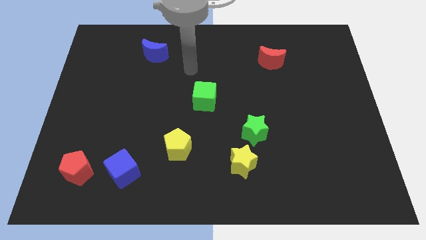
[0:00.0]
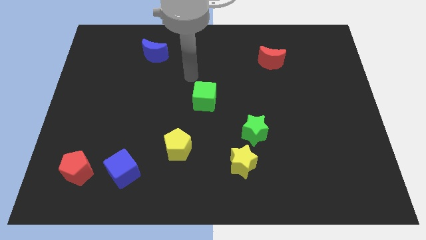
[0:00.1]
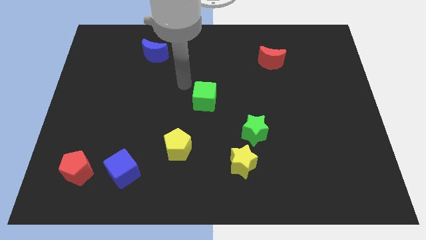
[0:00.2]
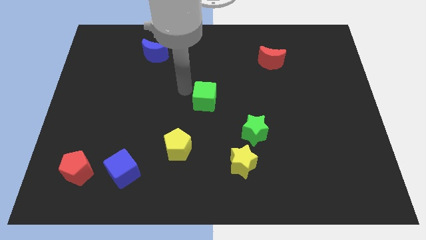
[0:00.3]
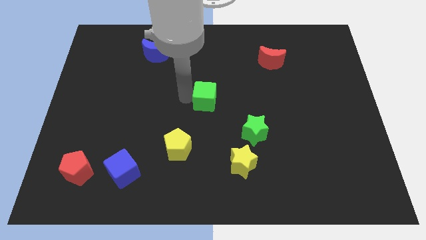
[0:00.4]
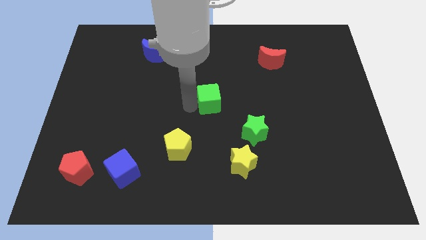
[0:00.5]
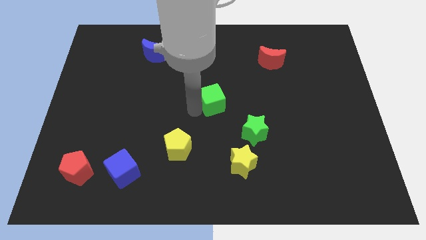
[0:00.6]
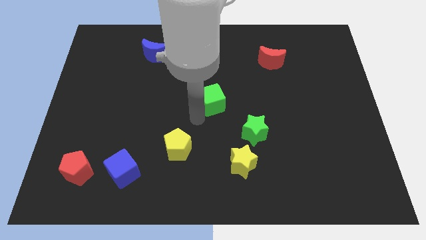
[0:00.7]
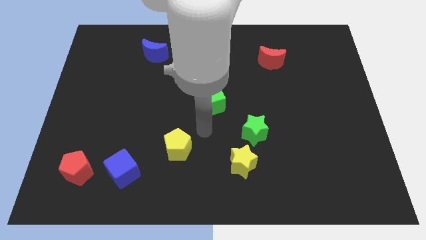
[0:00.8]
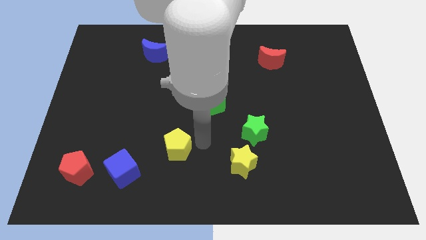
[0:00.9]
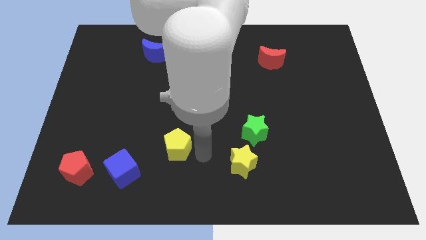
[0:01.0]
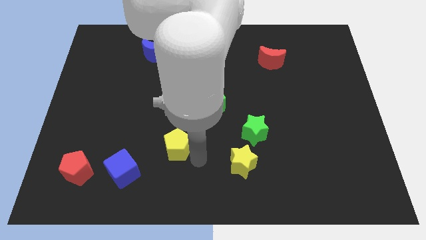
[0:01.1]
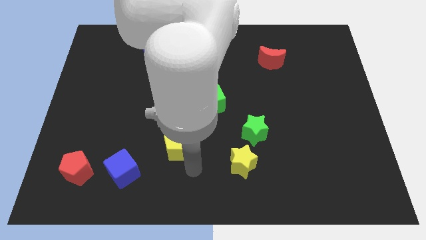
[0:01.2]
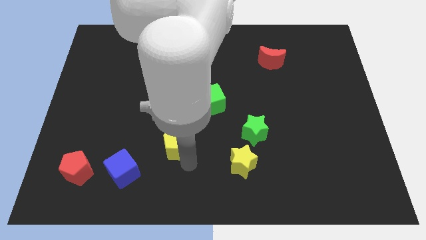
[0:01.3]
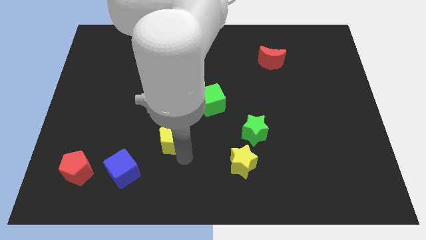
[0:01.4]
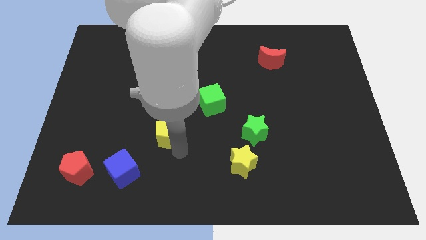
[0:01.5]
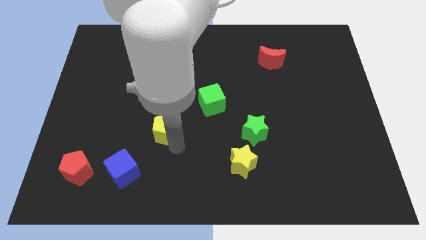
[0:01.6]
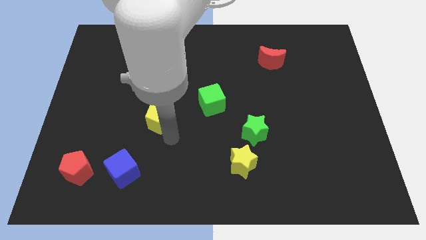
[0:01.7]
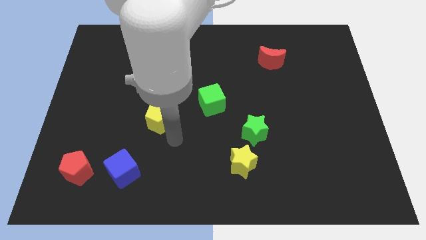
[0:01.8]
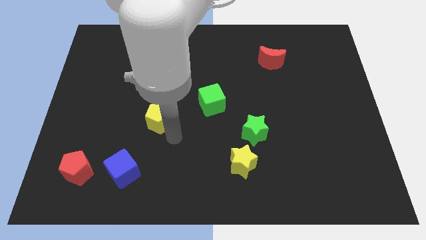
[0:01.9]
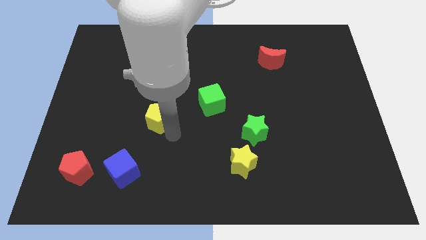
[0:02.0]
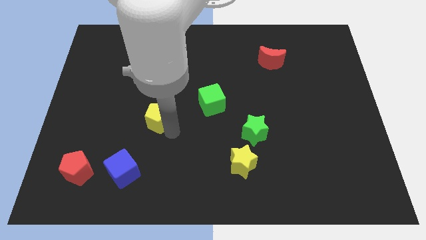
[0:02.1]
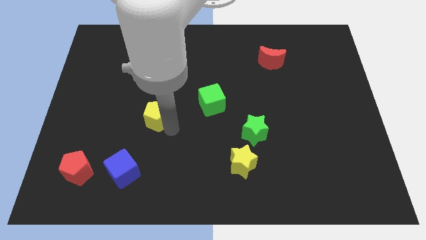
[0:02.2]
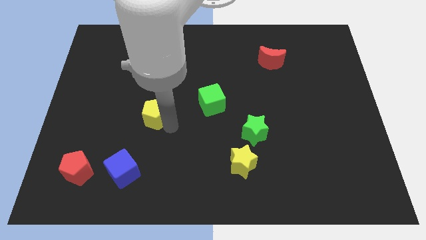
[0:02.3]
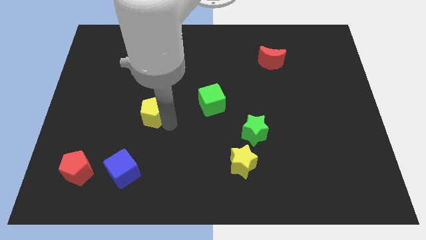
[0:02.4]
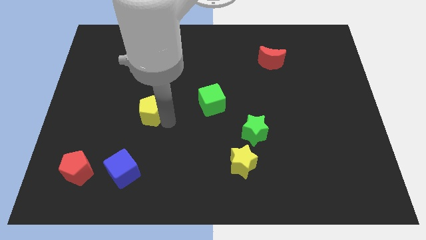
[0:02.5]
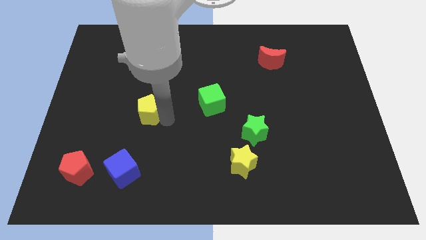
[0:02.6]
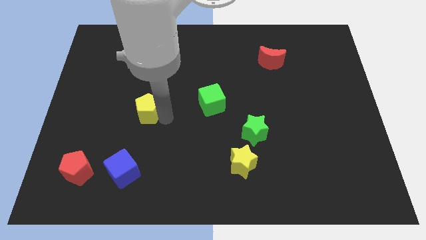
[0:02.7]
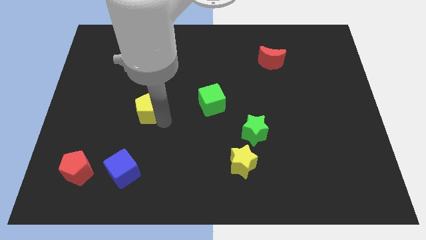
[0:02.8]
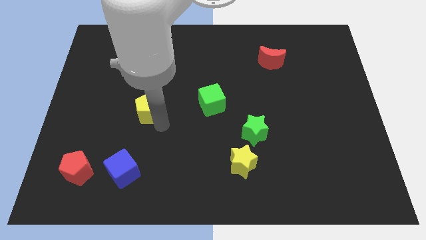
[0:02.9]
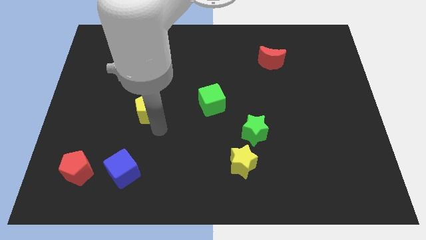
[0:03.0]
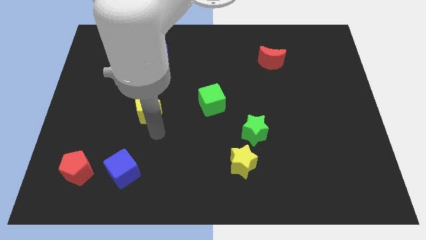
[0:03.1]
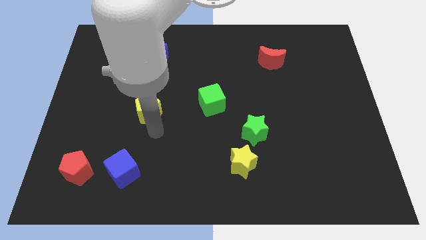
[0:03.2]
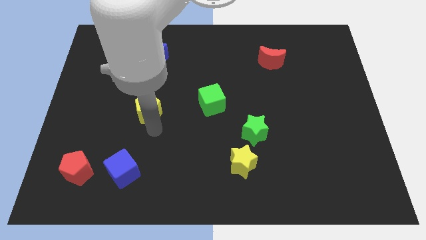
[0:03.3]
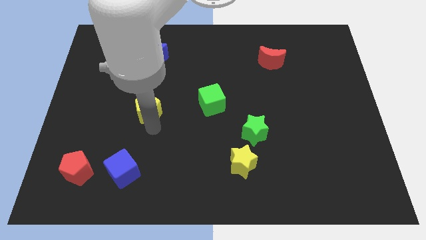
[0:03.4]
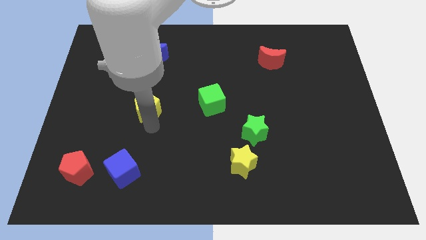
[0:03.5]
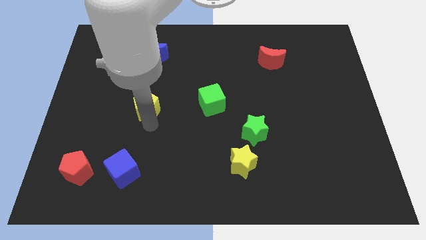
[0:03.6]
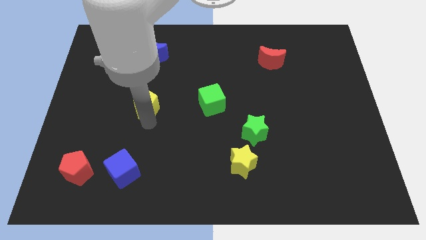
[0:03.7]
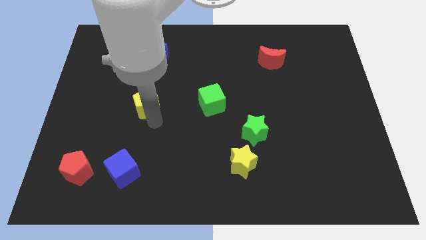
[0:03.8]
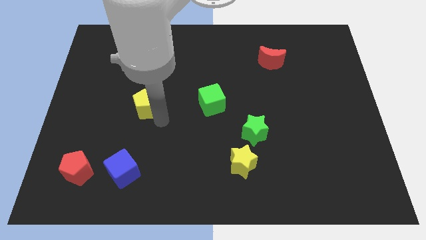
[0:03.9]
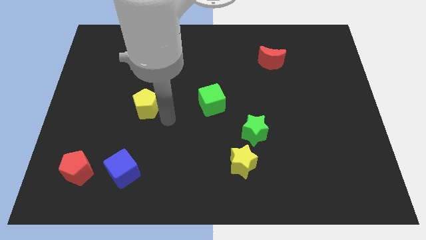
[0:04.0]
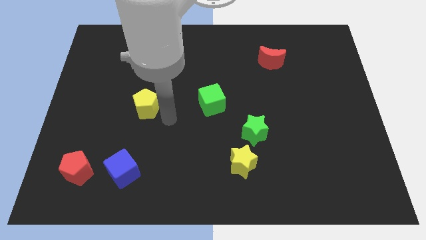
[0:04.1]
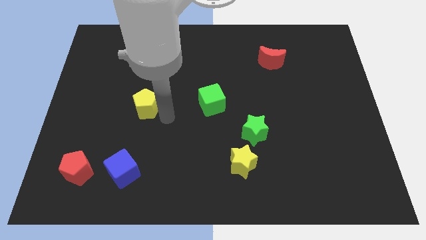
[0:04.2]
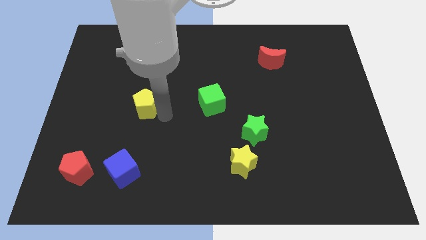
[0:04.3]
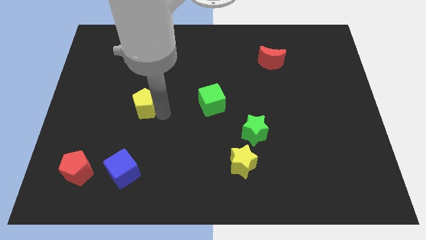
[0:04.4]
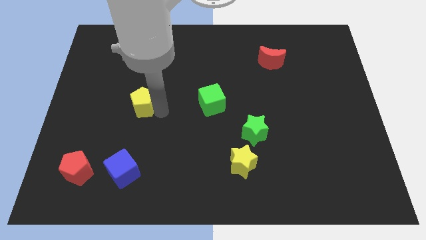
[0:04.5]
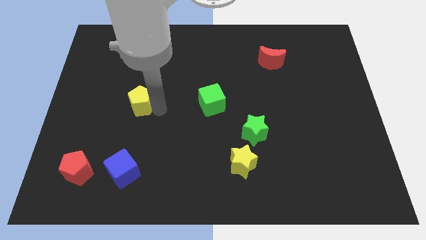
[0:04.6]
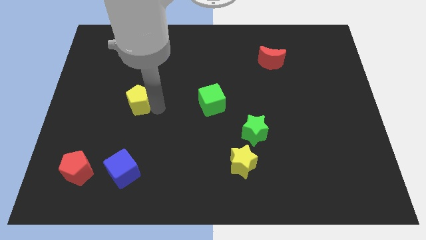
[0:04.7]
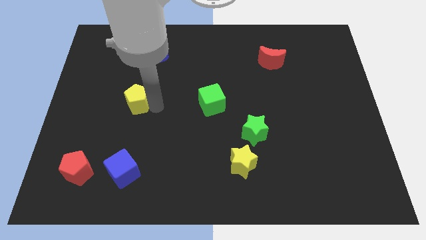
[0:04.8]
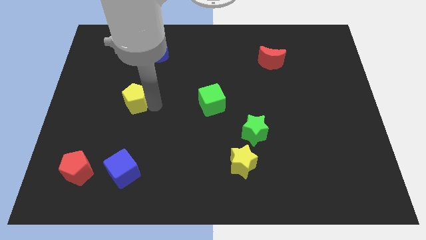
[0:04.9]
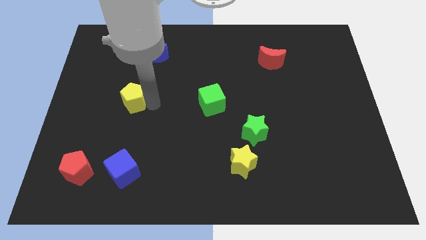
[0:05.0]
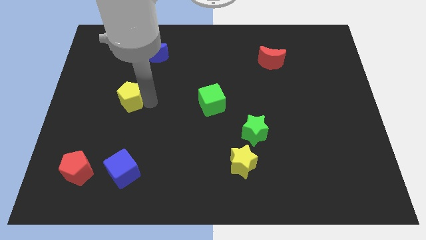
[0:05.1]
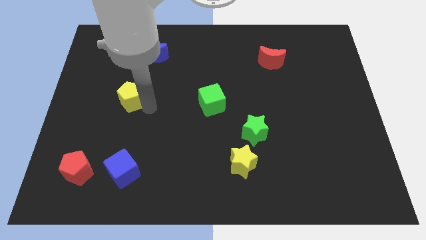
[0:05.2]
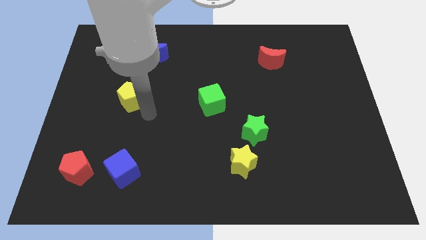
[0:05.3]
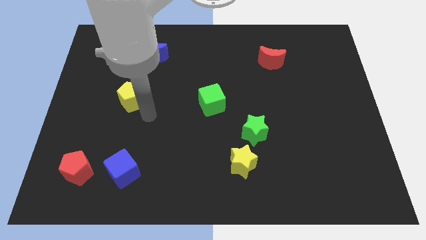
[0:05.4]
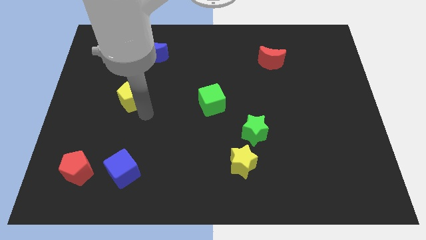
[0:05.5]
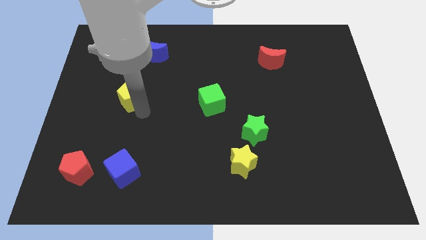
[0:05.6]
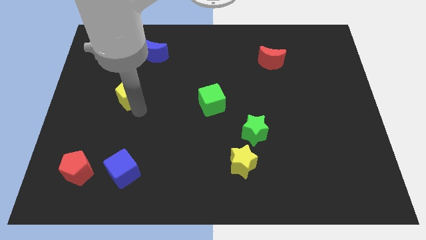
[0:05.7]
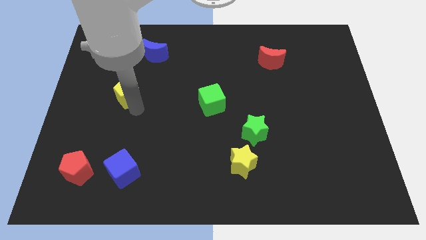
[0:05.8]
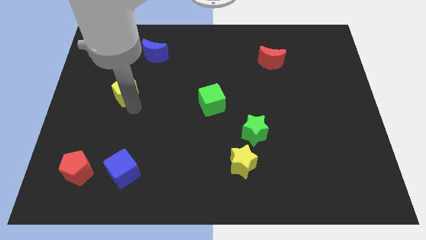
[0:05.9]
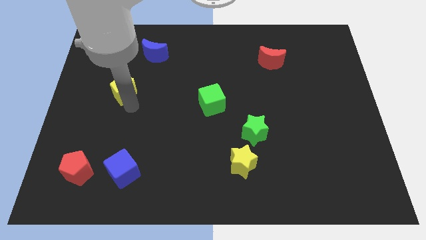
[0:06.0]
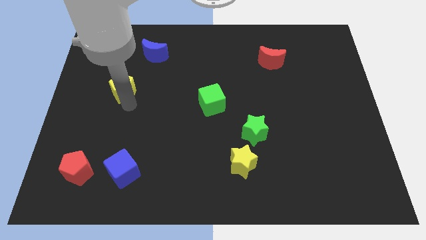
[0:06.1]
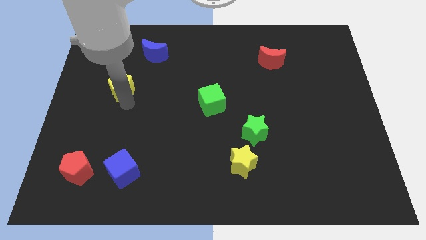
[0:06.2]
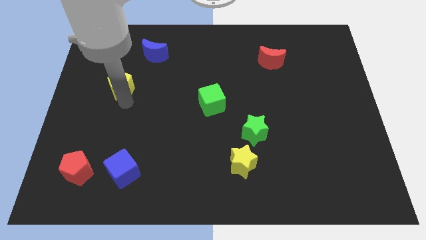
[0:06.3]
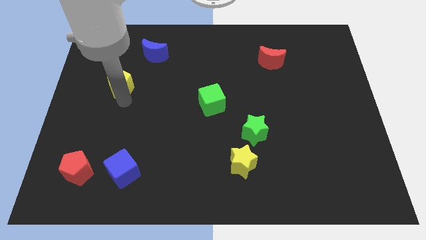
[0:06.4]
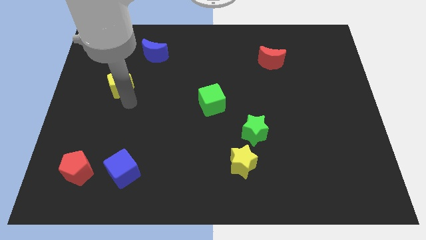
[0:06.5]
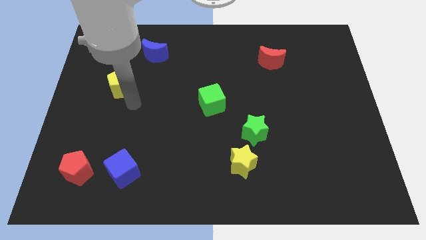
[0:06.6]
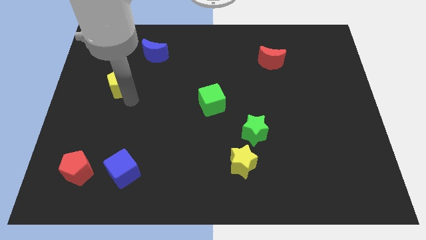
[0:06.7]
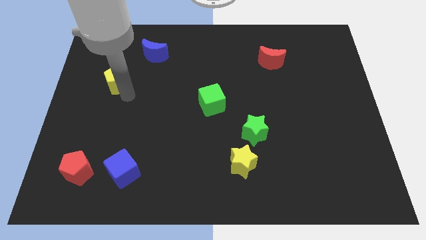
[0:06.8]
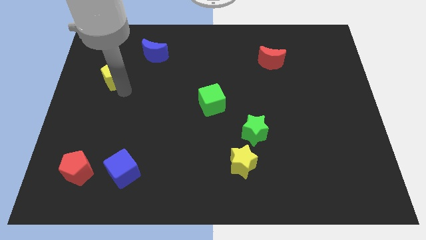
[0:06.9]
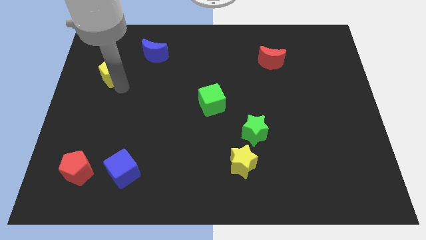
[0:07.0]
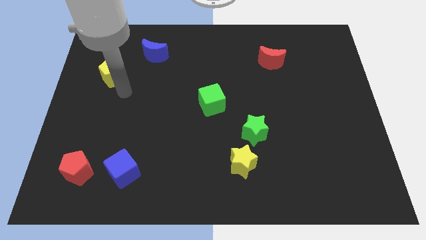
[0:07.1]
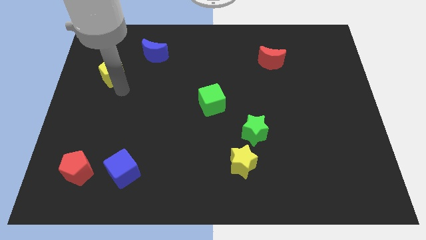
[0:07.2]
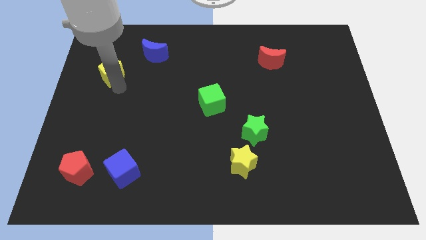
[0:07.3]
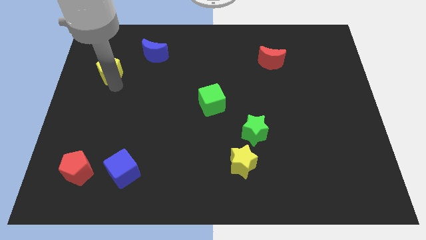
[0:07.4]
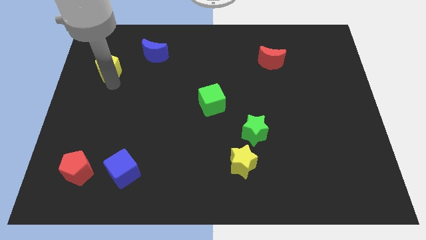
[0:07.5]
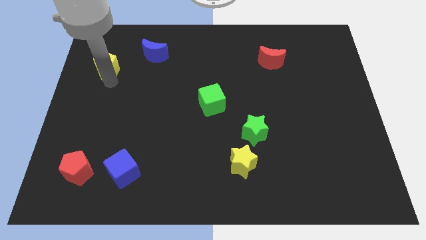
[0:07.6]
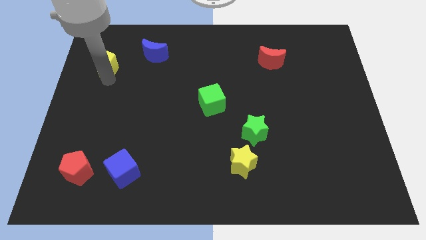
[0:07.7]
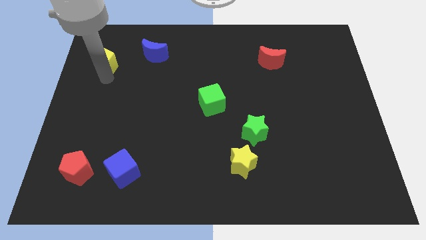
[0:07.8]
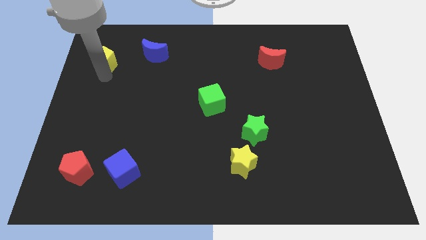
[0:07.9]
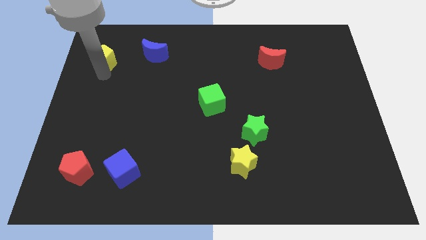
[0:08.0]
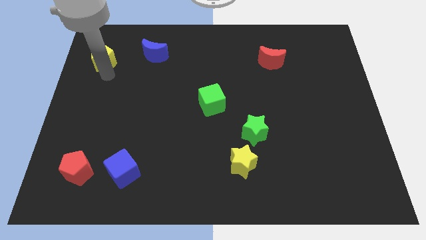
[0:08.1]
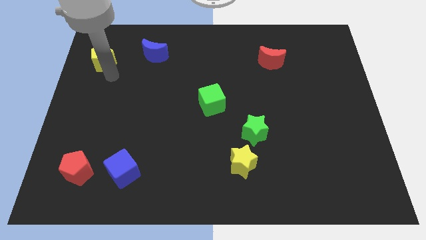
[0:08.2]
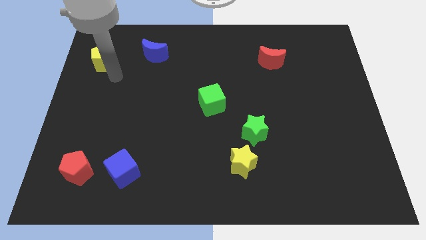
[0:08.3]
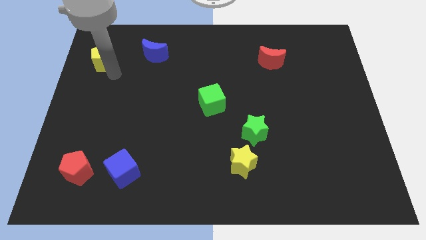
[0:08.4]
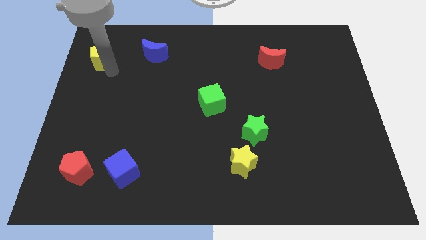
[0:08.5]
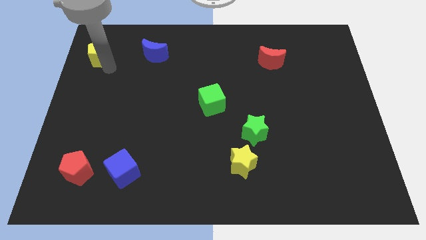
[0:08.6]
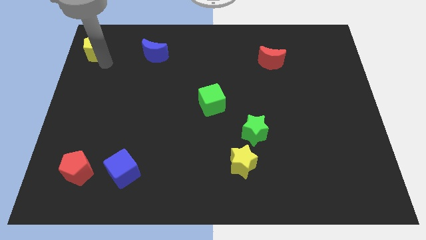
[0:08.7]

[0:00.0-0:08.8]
move the yellow pentagon to the upper left corner
